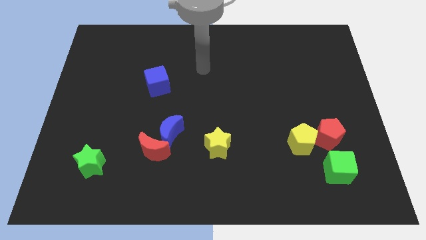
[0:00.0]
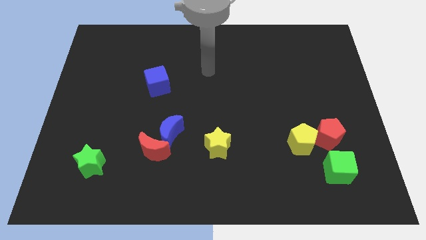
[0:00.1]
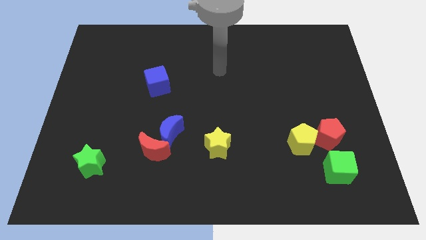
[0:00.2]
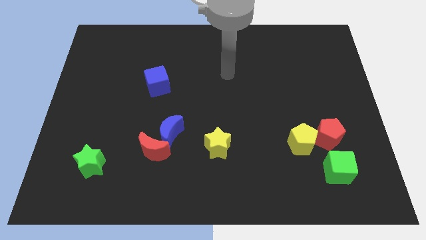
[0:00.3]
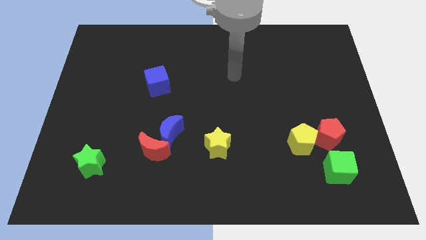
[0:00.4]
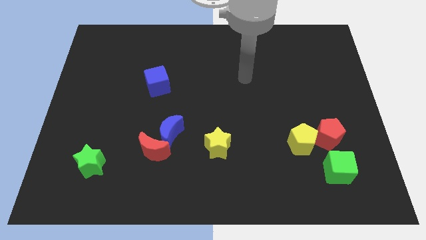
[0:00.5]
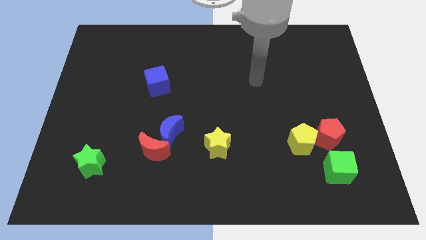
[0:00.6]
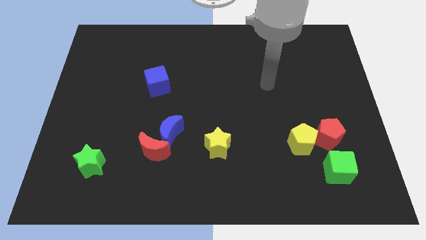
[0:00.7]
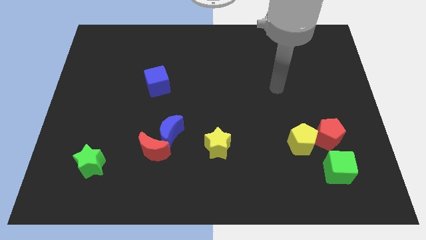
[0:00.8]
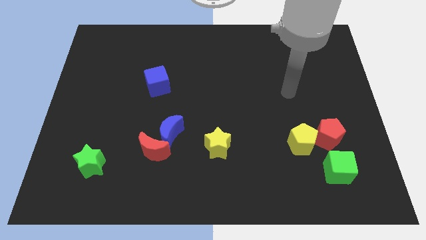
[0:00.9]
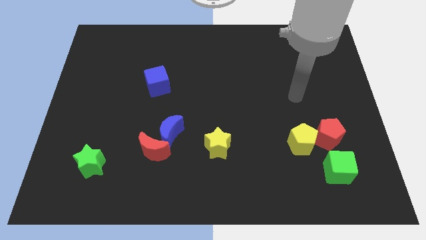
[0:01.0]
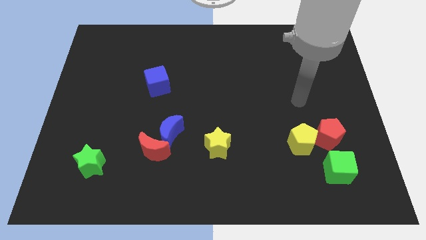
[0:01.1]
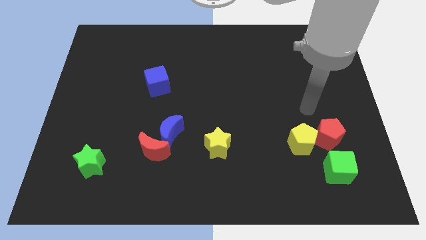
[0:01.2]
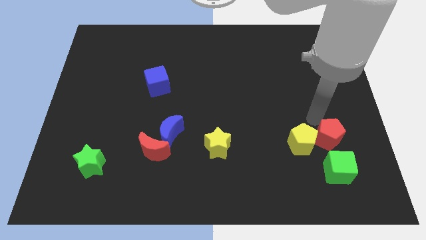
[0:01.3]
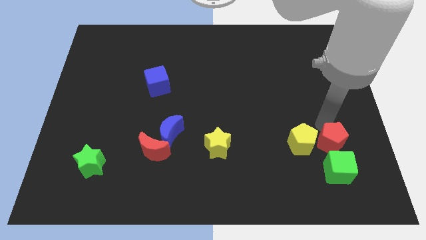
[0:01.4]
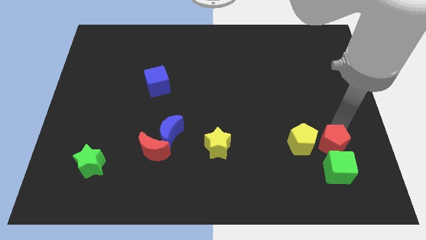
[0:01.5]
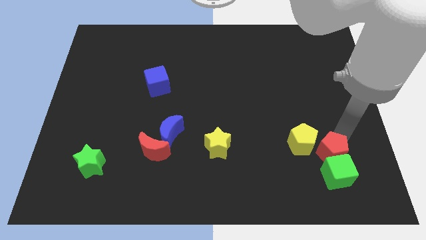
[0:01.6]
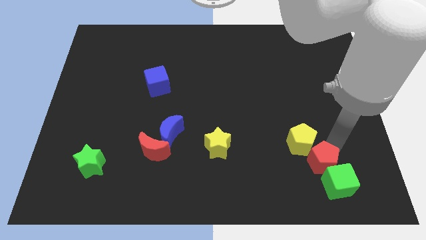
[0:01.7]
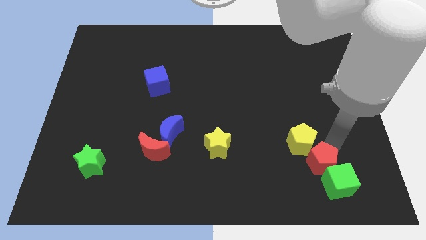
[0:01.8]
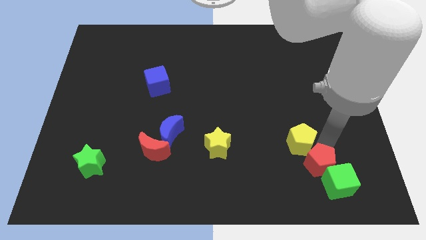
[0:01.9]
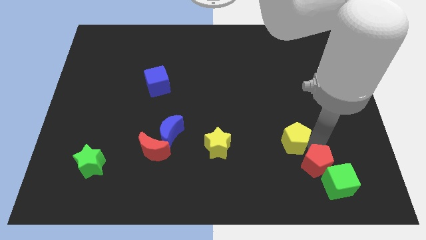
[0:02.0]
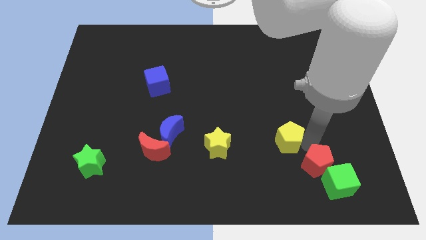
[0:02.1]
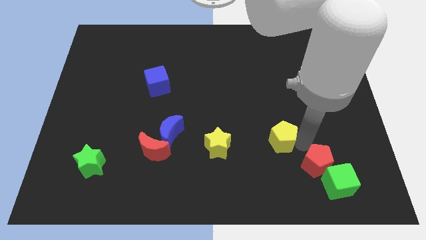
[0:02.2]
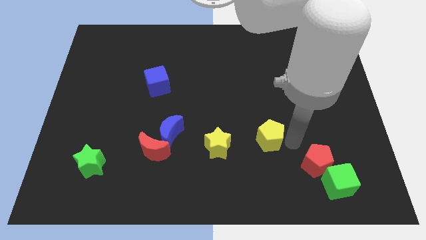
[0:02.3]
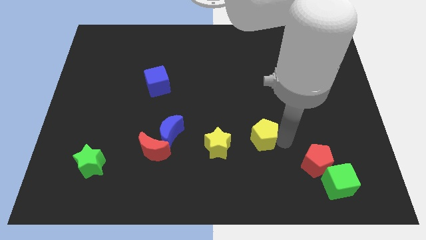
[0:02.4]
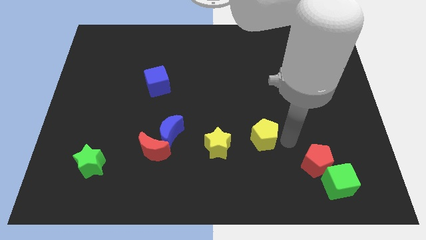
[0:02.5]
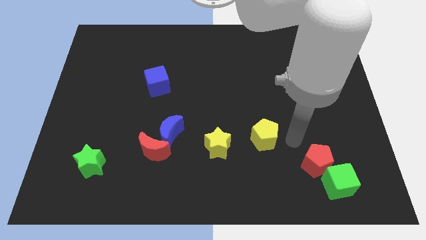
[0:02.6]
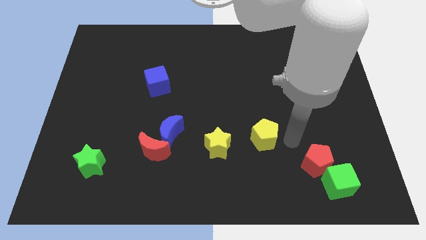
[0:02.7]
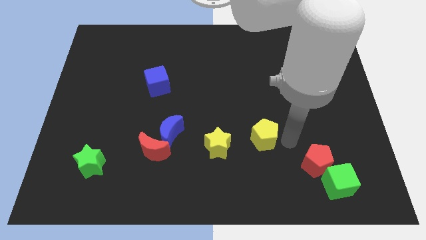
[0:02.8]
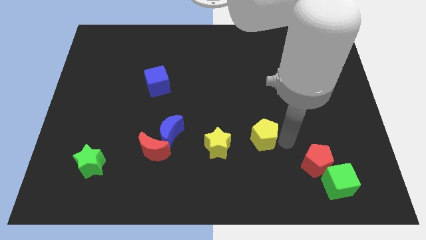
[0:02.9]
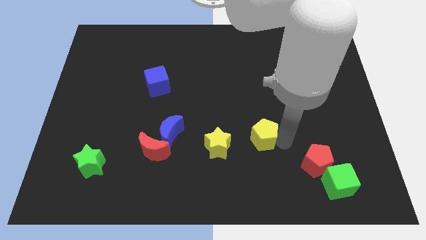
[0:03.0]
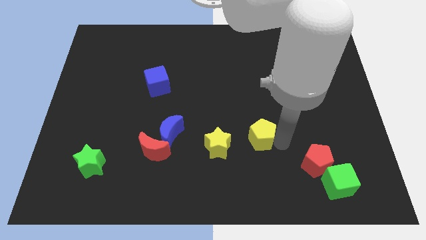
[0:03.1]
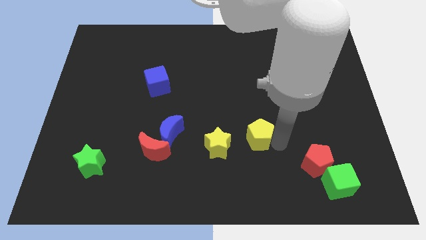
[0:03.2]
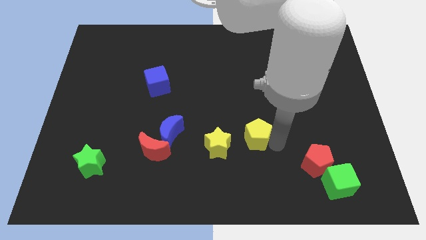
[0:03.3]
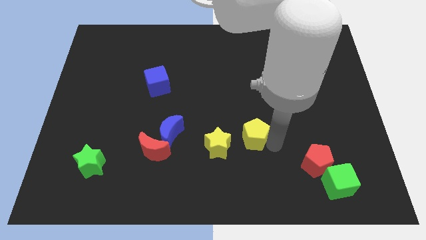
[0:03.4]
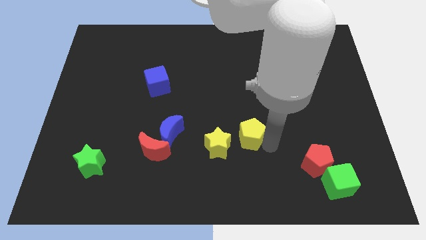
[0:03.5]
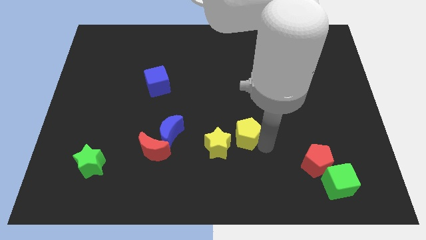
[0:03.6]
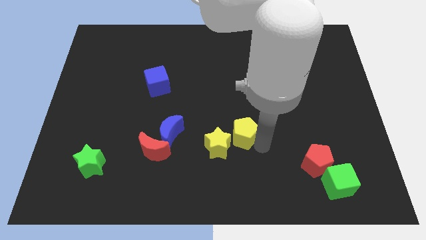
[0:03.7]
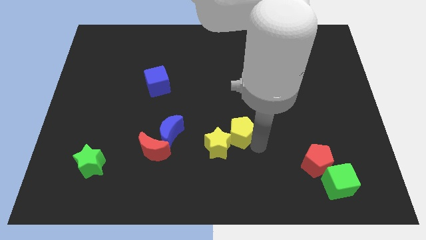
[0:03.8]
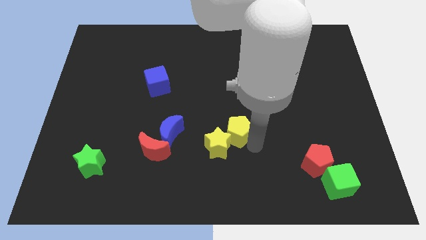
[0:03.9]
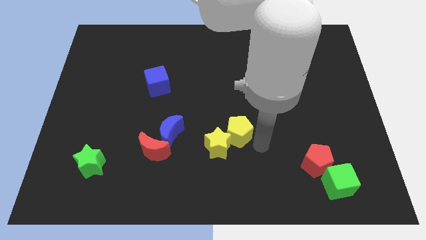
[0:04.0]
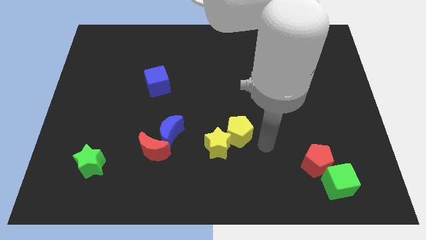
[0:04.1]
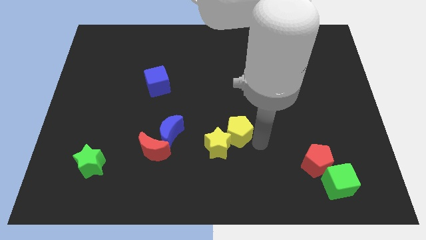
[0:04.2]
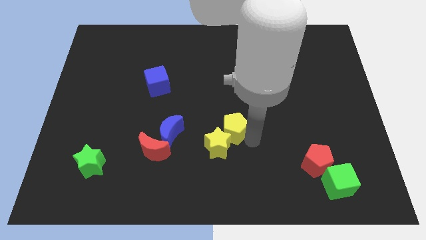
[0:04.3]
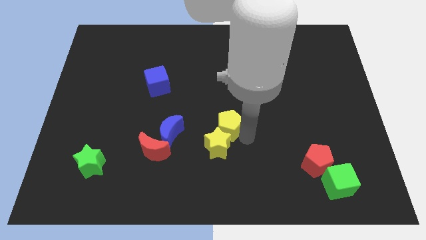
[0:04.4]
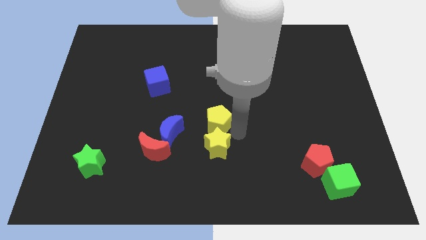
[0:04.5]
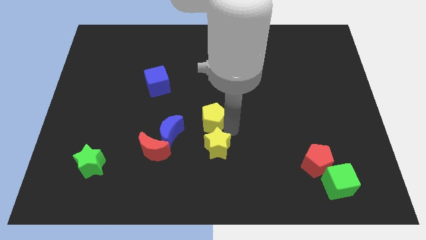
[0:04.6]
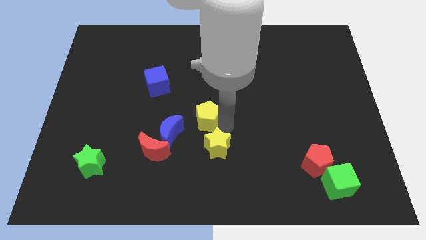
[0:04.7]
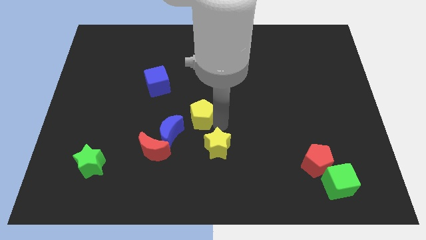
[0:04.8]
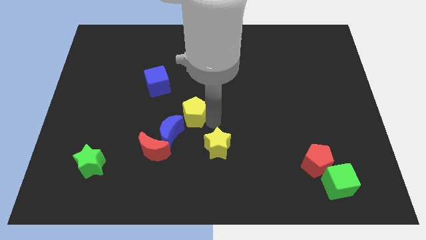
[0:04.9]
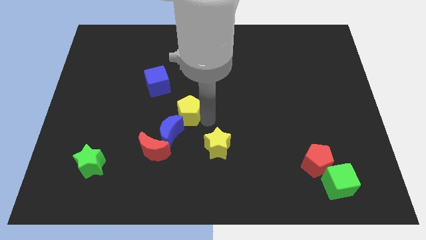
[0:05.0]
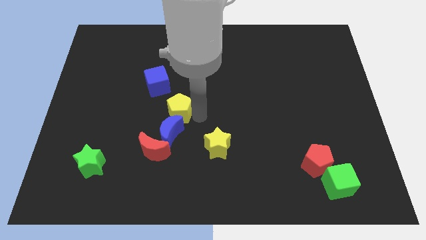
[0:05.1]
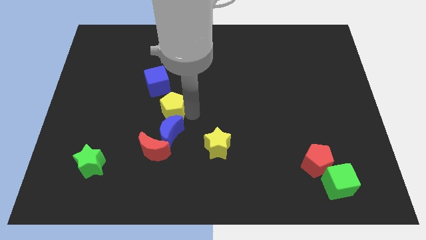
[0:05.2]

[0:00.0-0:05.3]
push the yellow pentagon to the bottom of the blue cube
